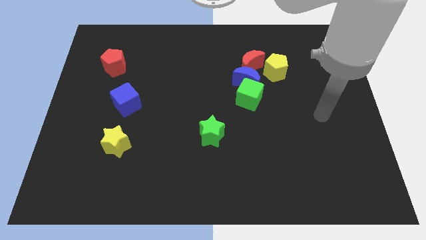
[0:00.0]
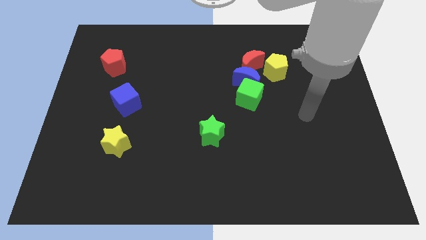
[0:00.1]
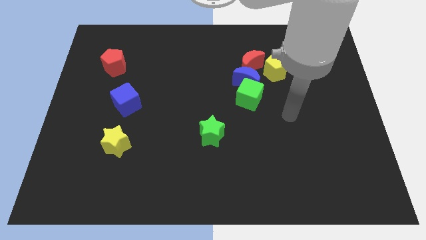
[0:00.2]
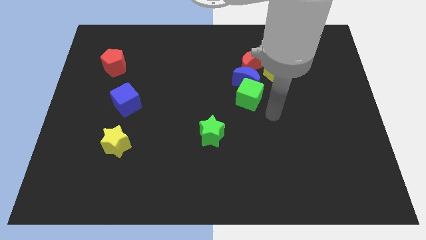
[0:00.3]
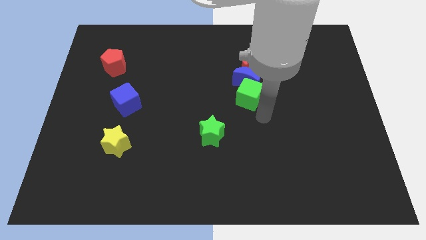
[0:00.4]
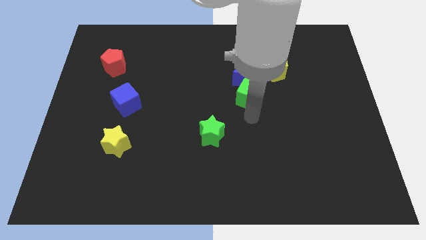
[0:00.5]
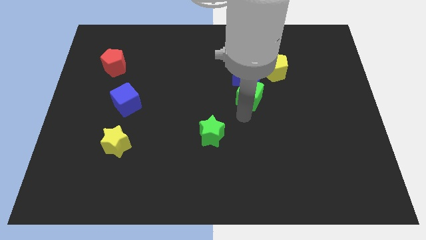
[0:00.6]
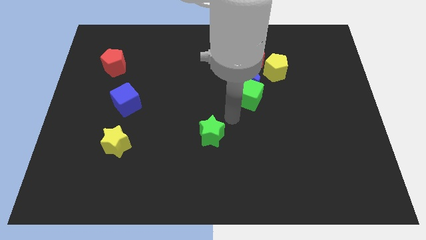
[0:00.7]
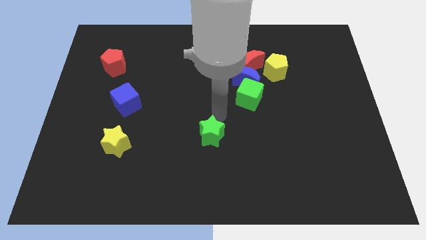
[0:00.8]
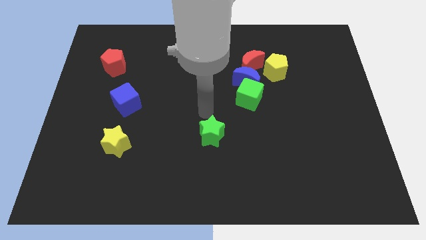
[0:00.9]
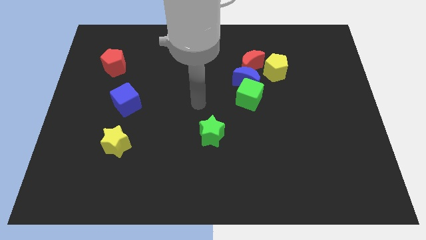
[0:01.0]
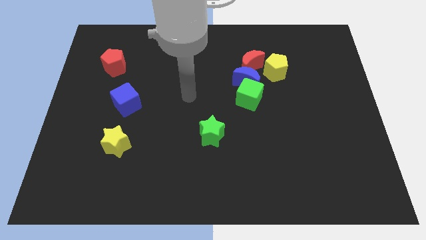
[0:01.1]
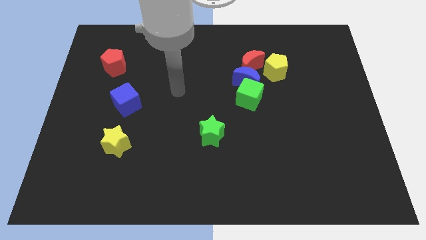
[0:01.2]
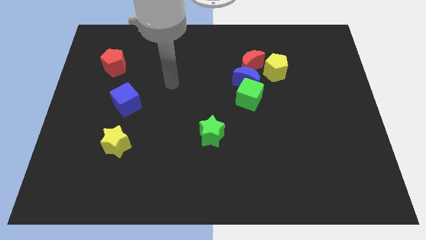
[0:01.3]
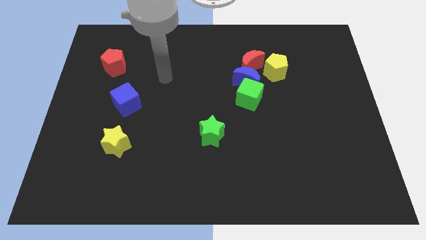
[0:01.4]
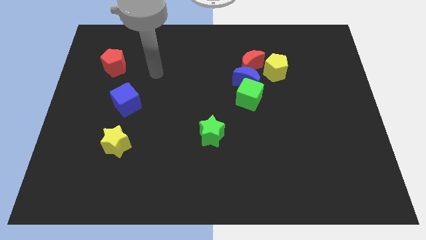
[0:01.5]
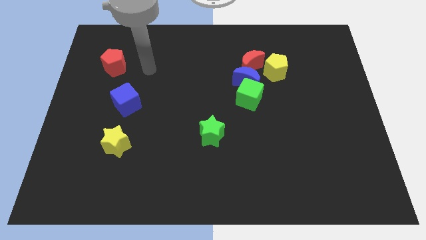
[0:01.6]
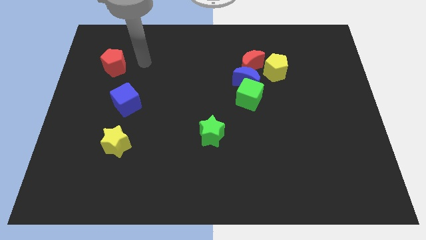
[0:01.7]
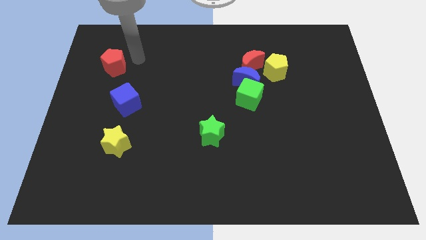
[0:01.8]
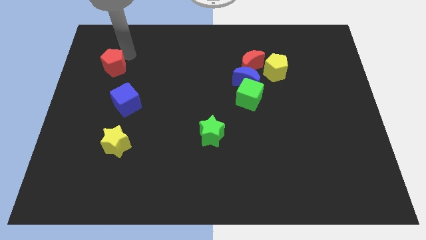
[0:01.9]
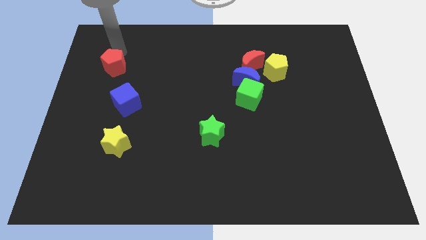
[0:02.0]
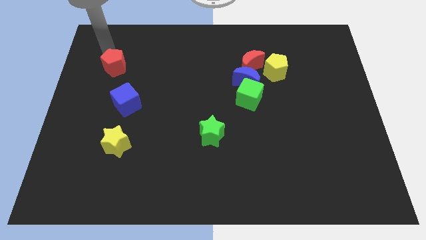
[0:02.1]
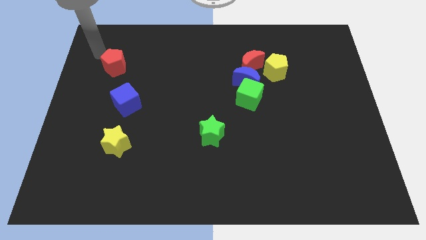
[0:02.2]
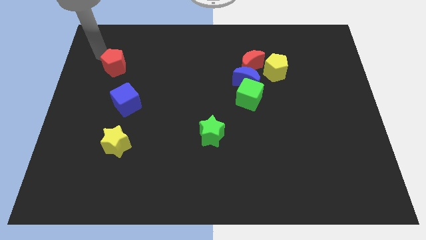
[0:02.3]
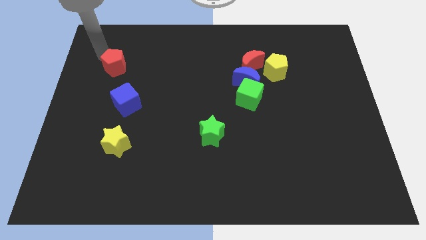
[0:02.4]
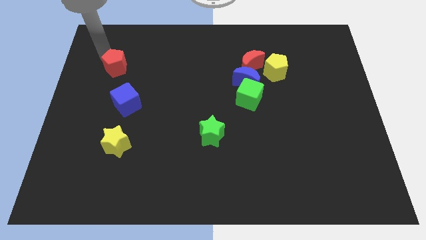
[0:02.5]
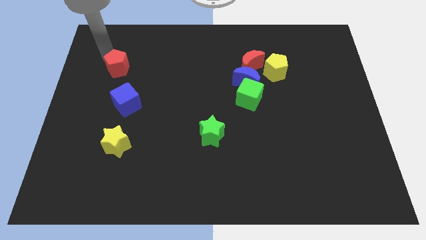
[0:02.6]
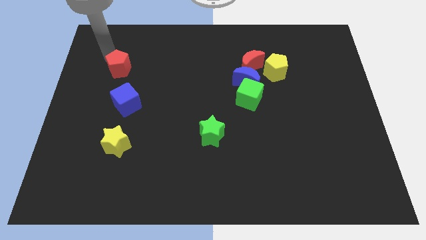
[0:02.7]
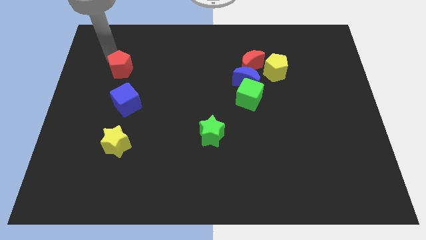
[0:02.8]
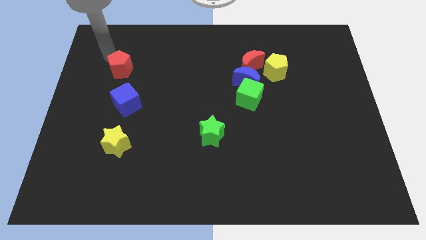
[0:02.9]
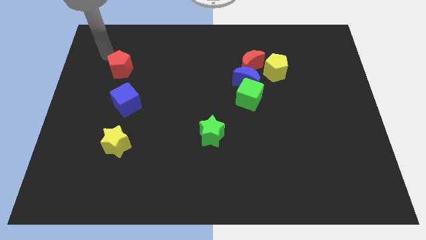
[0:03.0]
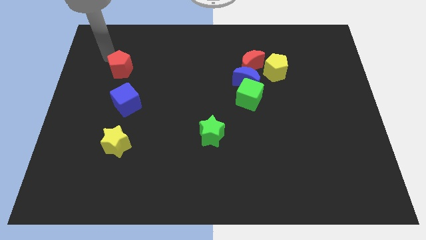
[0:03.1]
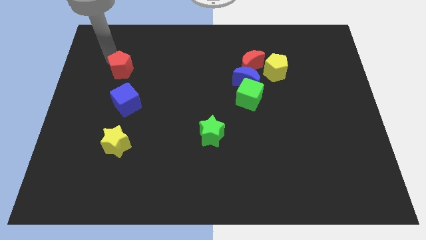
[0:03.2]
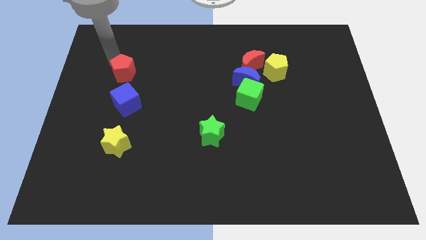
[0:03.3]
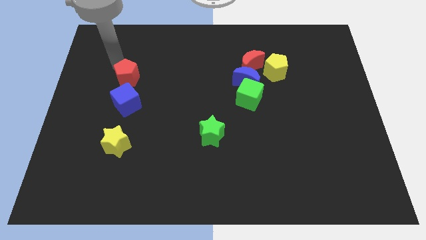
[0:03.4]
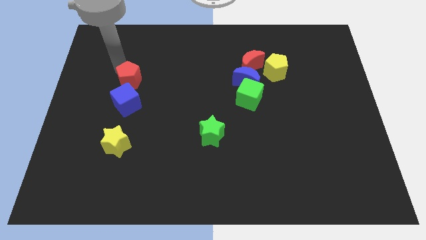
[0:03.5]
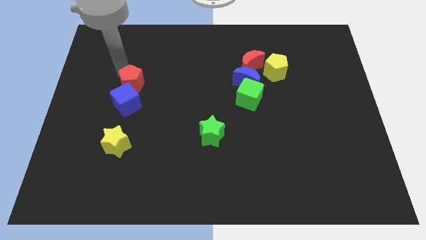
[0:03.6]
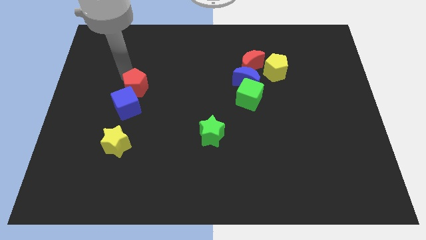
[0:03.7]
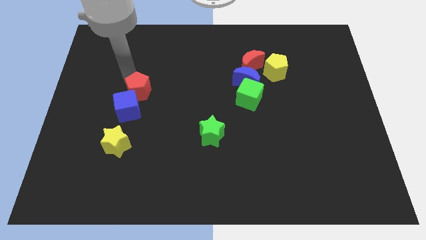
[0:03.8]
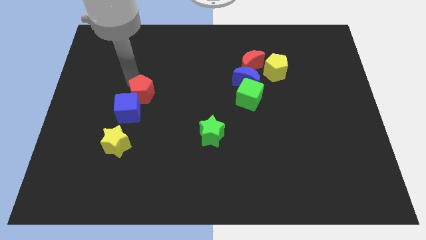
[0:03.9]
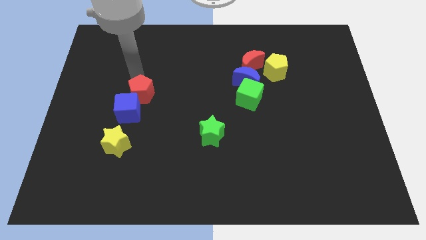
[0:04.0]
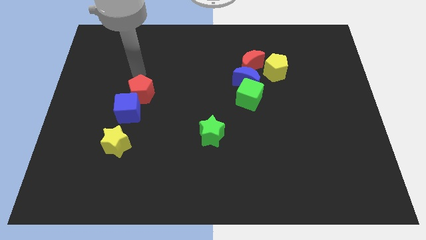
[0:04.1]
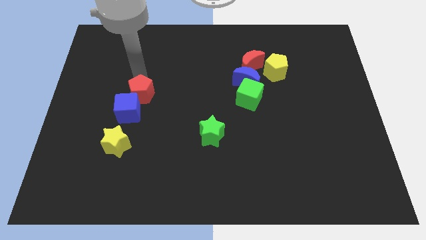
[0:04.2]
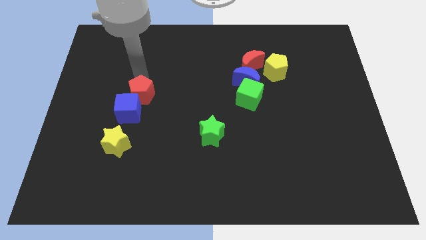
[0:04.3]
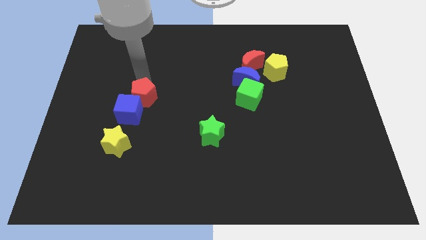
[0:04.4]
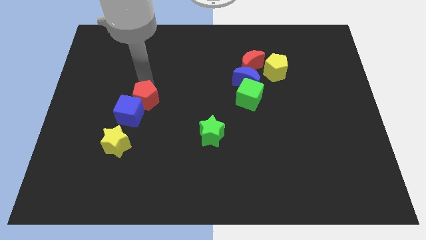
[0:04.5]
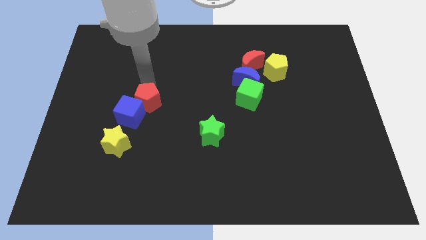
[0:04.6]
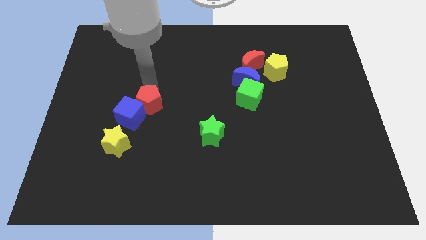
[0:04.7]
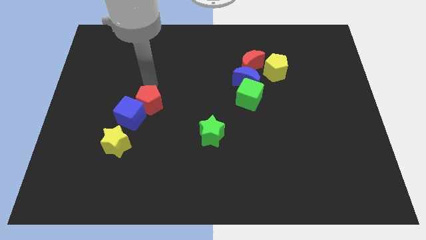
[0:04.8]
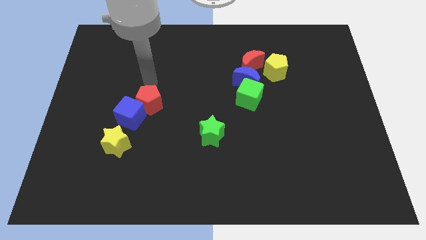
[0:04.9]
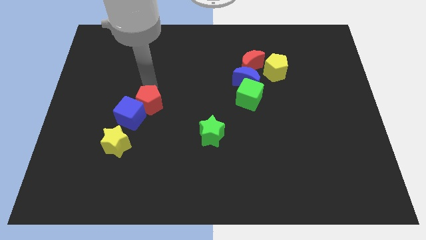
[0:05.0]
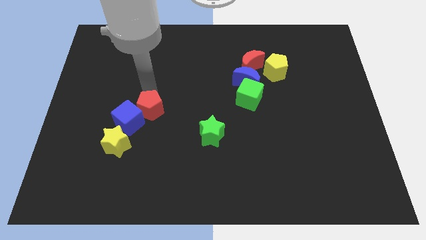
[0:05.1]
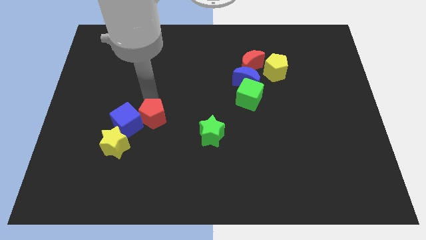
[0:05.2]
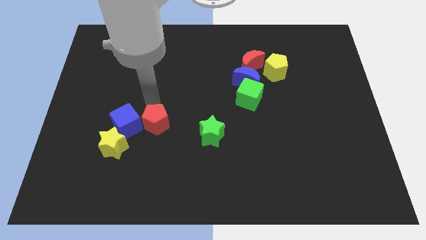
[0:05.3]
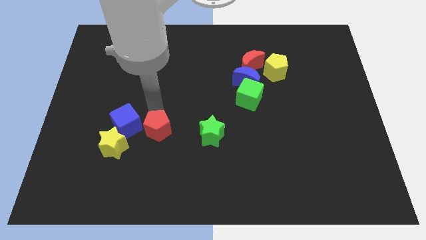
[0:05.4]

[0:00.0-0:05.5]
put the red pentagon to the bottom right side of the blue cube

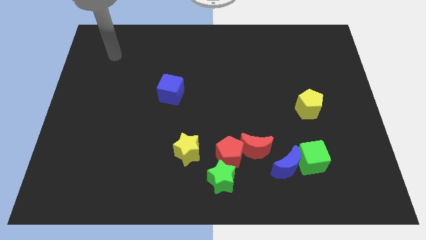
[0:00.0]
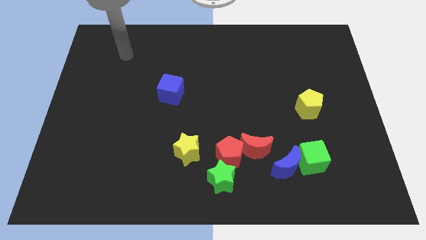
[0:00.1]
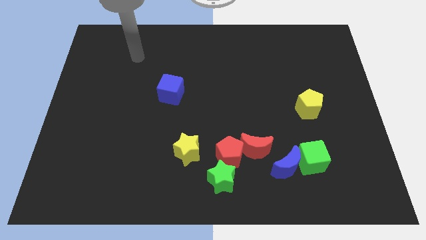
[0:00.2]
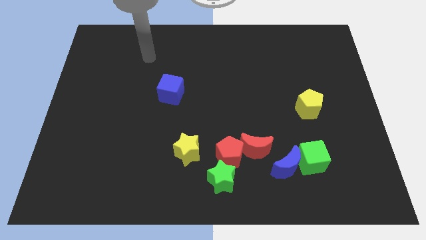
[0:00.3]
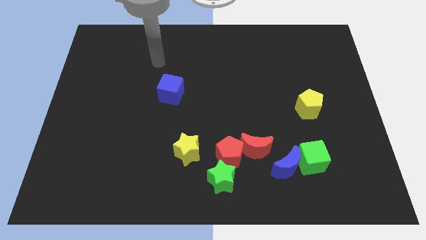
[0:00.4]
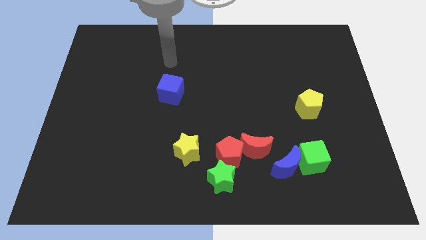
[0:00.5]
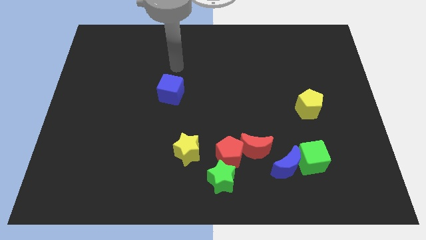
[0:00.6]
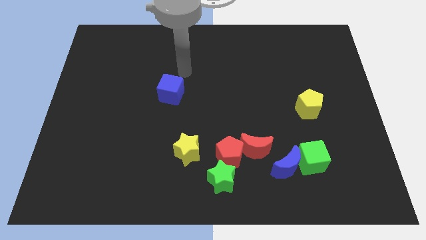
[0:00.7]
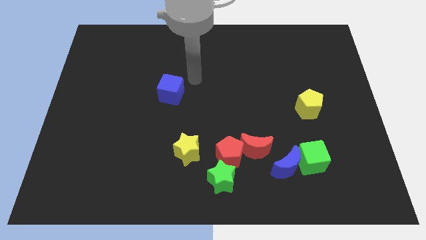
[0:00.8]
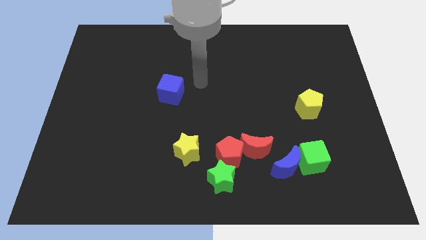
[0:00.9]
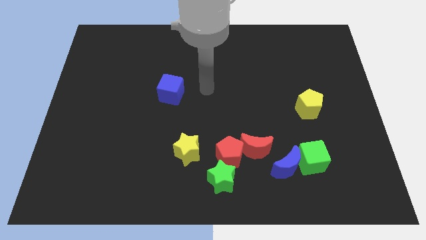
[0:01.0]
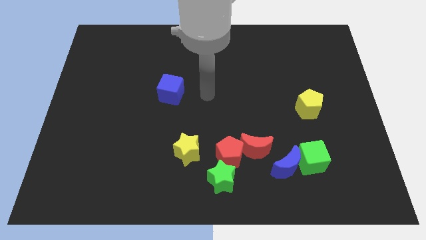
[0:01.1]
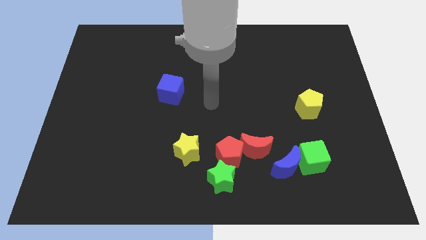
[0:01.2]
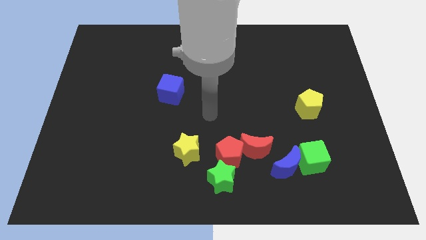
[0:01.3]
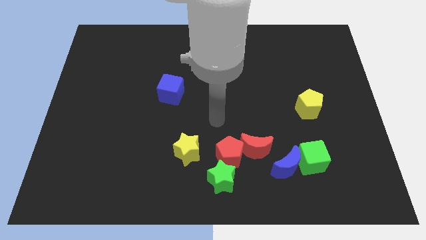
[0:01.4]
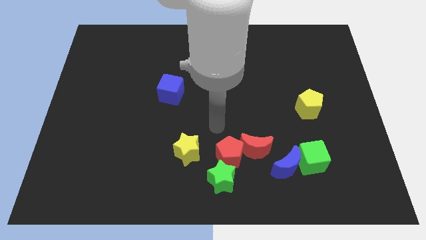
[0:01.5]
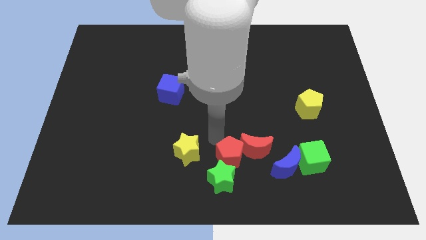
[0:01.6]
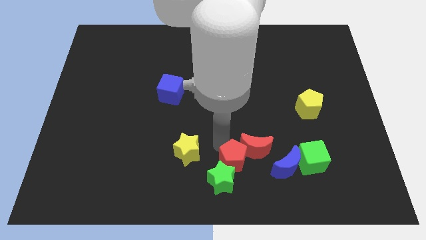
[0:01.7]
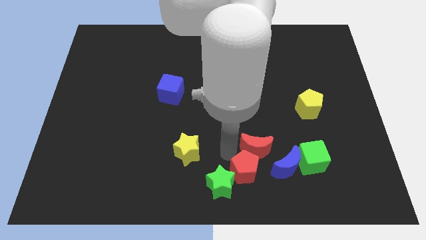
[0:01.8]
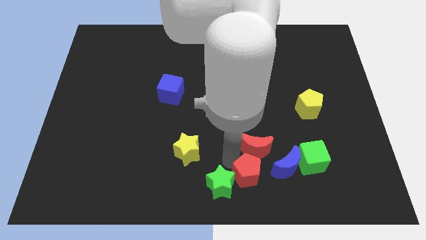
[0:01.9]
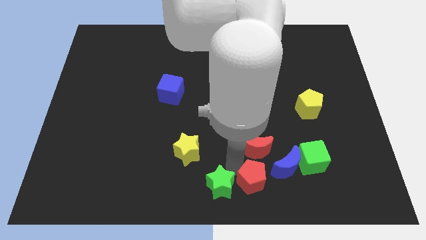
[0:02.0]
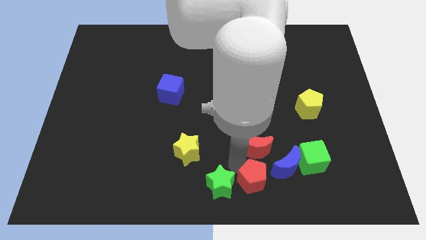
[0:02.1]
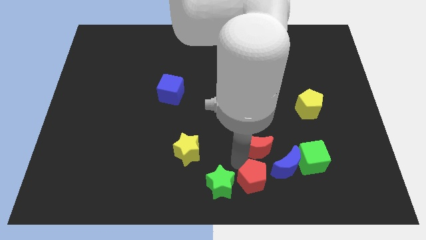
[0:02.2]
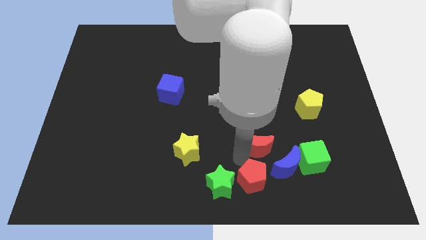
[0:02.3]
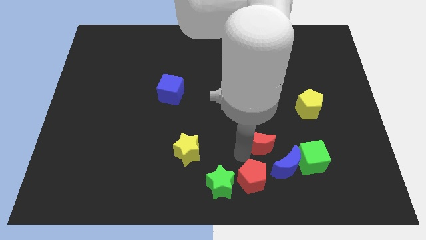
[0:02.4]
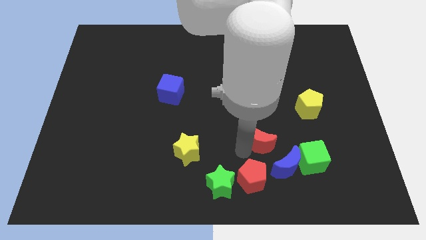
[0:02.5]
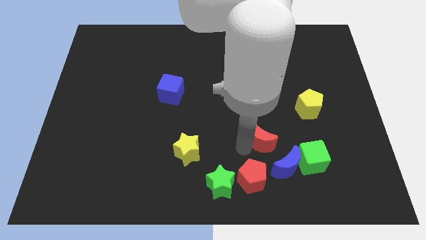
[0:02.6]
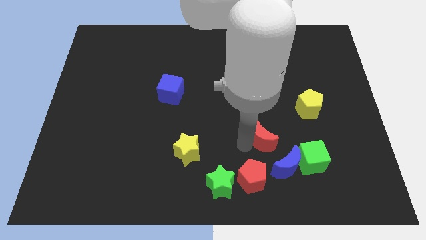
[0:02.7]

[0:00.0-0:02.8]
push the red moon to the top side of the blue moon
